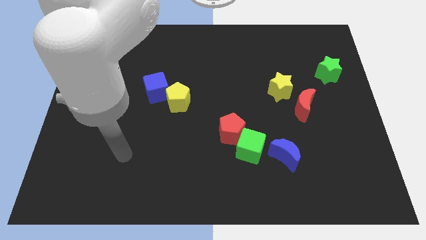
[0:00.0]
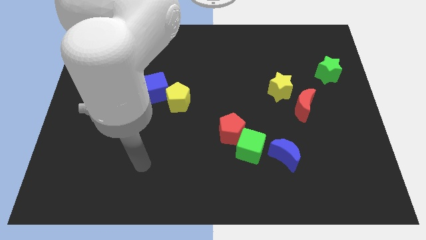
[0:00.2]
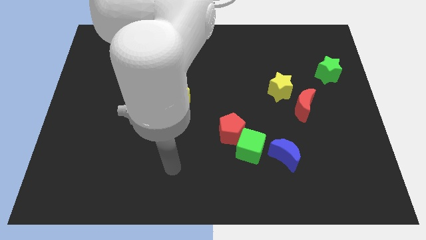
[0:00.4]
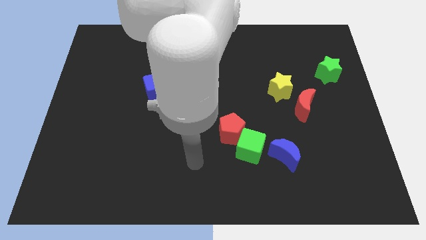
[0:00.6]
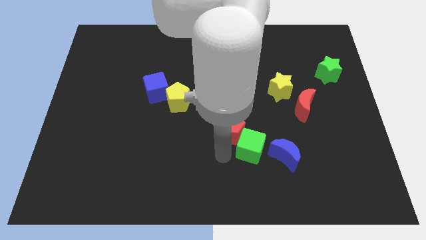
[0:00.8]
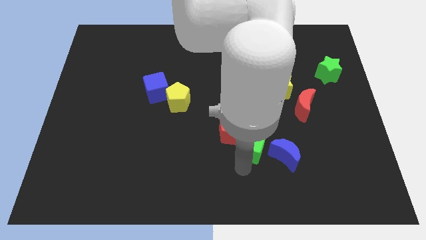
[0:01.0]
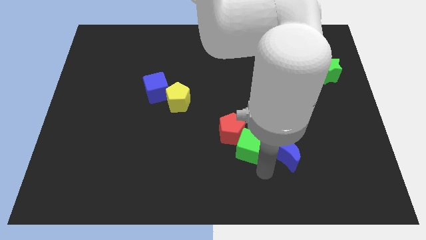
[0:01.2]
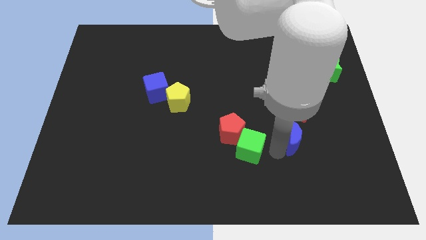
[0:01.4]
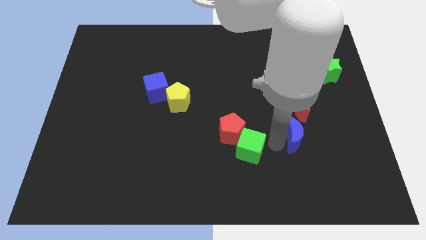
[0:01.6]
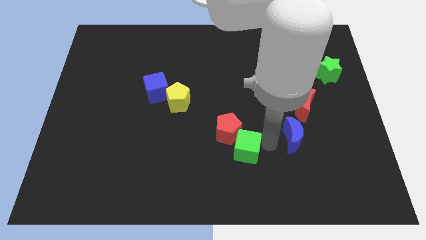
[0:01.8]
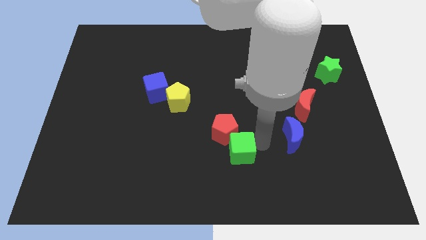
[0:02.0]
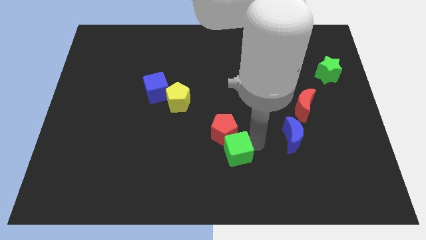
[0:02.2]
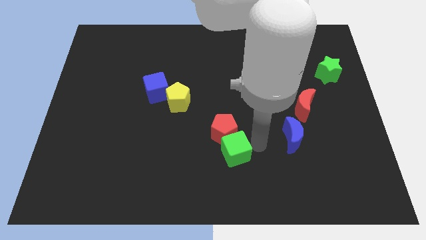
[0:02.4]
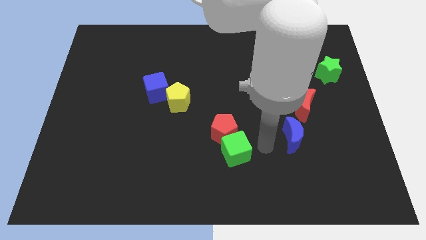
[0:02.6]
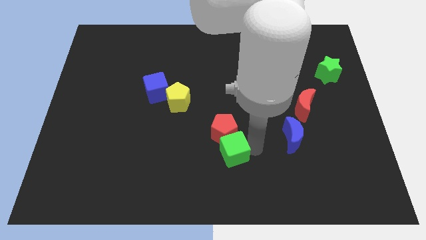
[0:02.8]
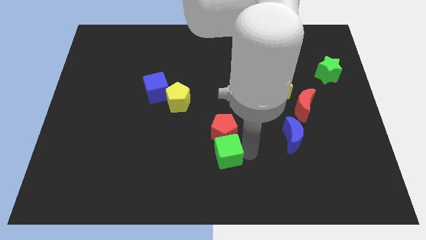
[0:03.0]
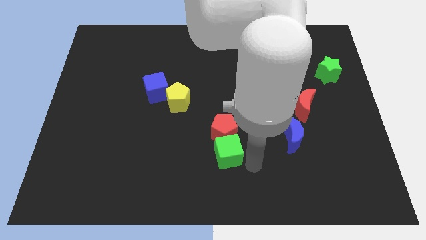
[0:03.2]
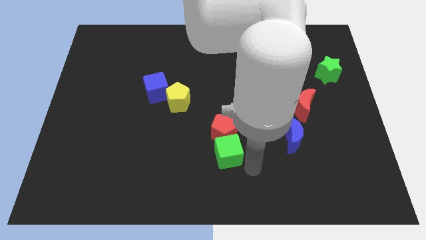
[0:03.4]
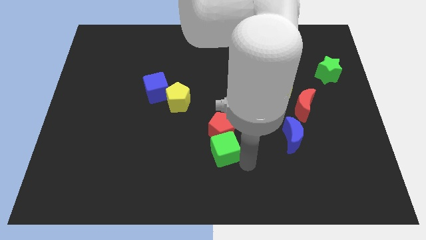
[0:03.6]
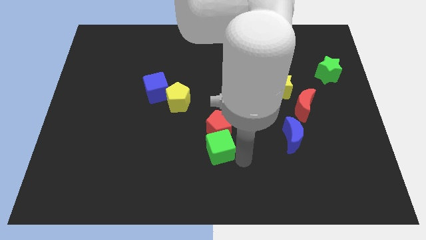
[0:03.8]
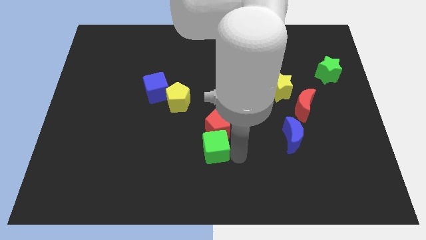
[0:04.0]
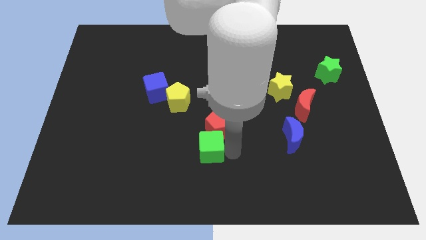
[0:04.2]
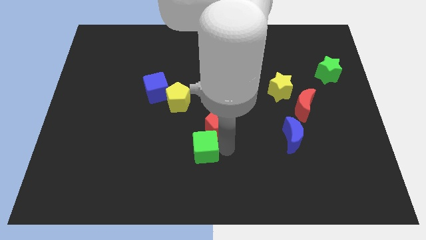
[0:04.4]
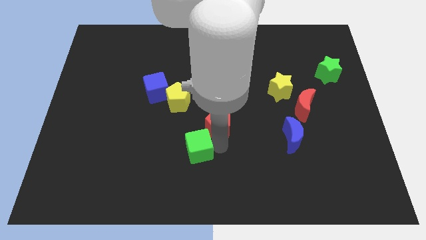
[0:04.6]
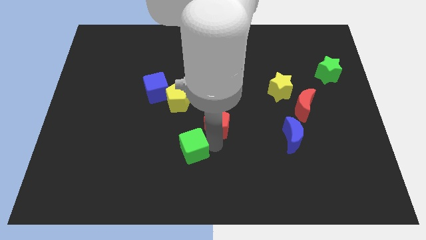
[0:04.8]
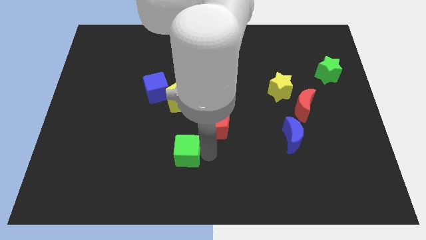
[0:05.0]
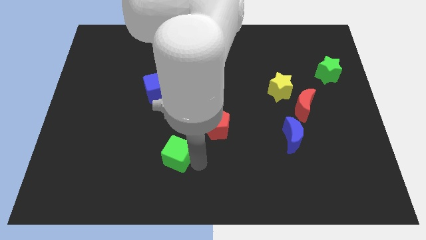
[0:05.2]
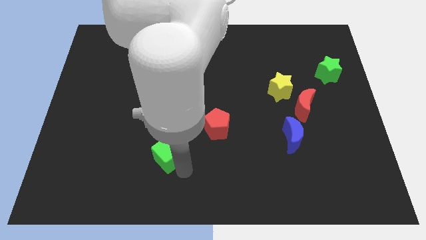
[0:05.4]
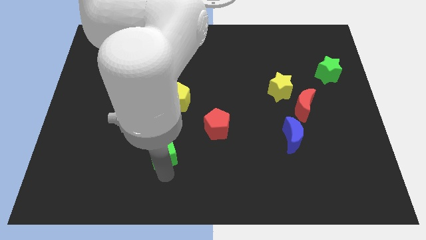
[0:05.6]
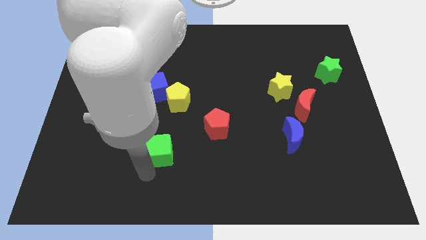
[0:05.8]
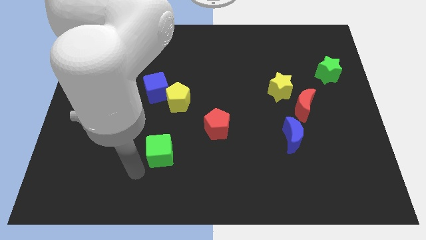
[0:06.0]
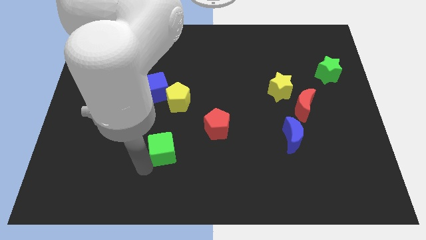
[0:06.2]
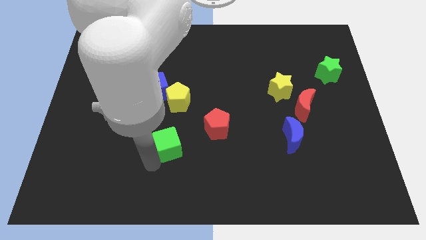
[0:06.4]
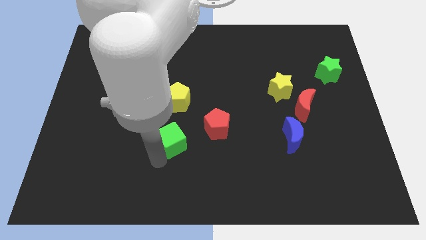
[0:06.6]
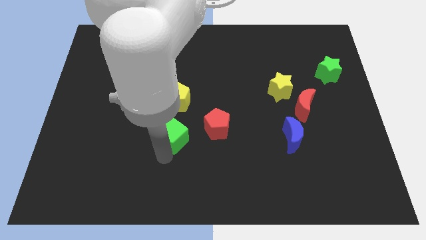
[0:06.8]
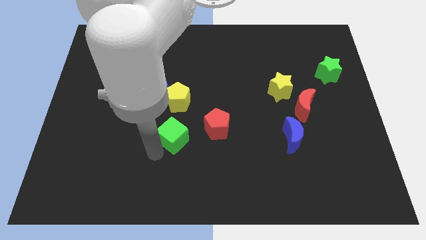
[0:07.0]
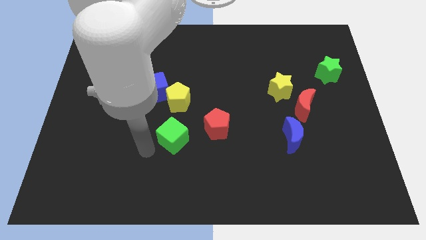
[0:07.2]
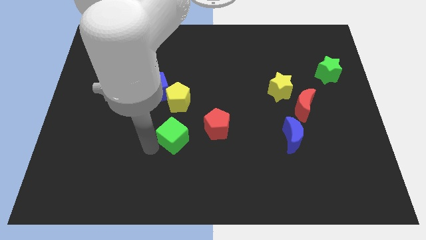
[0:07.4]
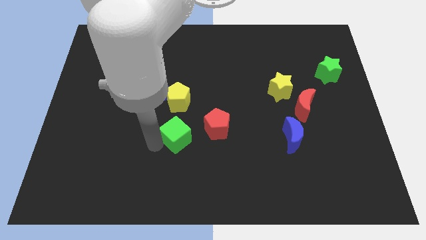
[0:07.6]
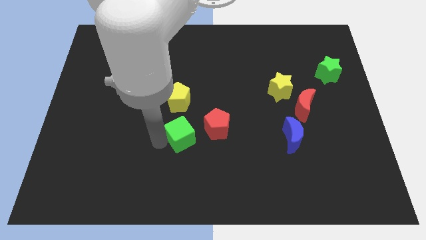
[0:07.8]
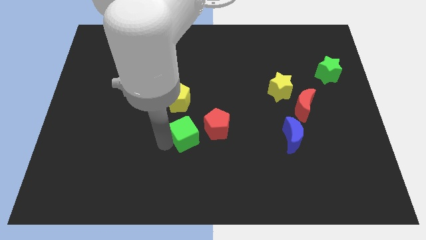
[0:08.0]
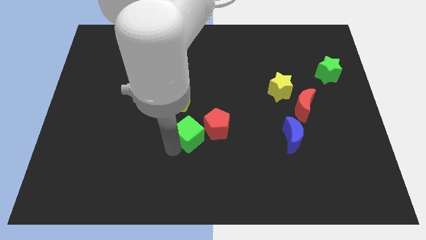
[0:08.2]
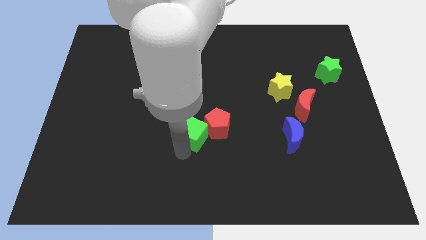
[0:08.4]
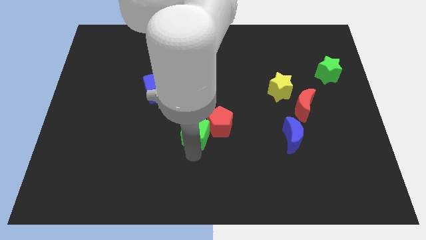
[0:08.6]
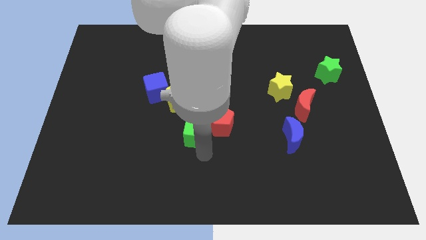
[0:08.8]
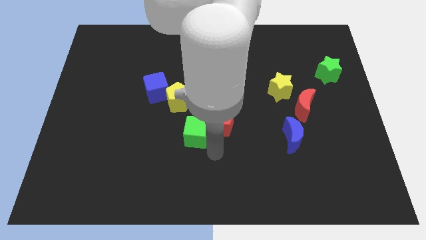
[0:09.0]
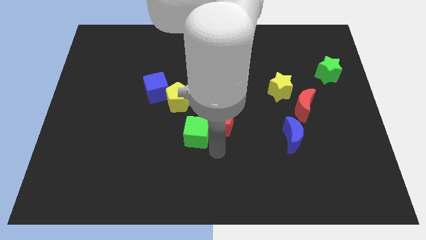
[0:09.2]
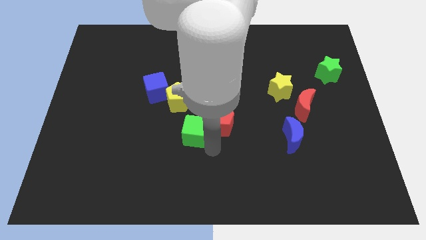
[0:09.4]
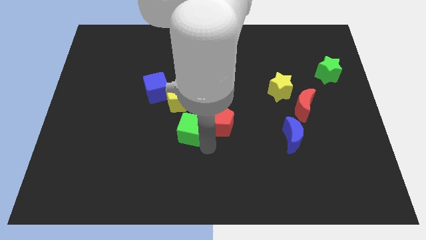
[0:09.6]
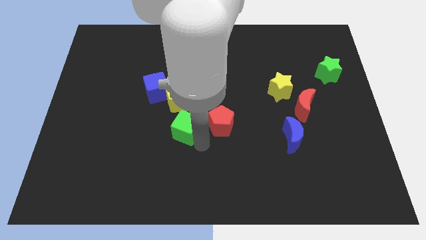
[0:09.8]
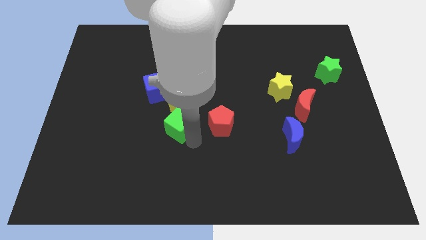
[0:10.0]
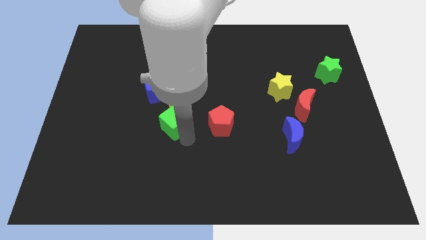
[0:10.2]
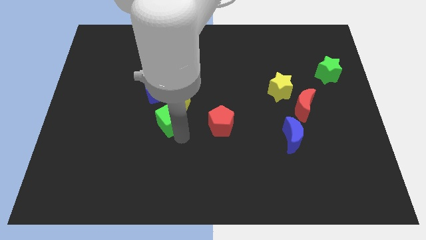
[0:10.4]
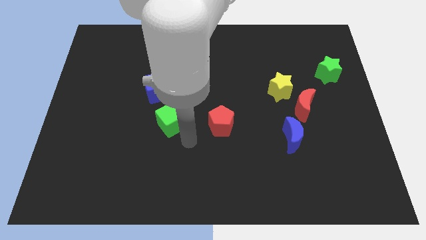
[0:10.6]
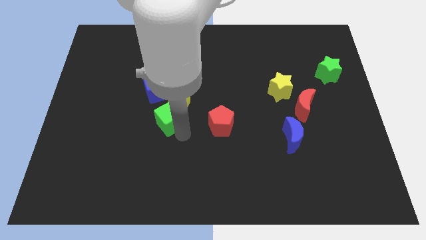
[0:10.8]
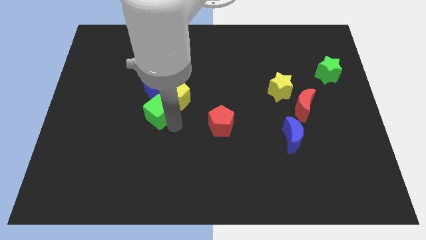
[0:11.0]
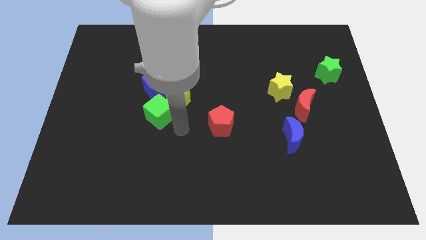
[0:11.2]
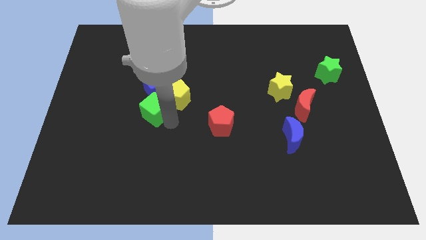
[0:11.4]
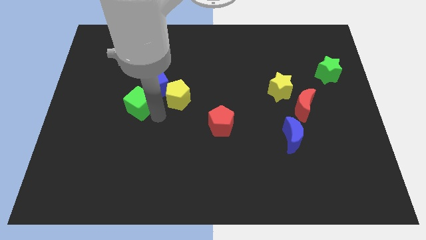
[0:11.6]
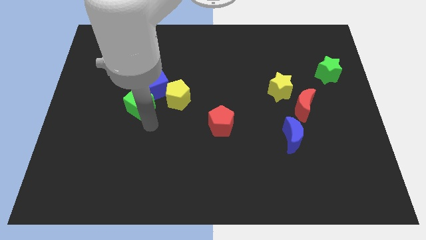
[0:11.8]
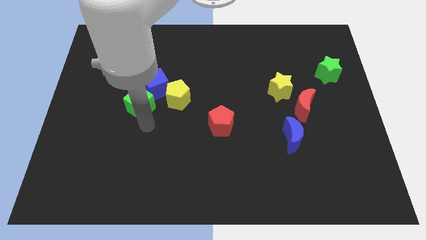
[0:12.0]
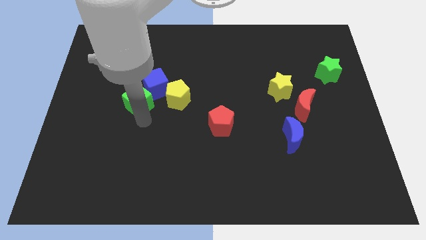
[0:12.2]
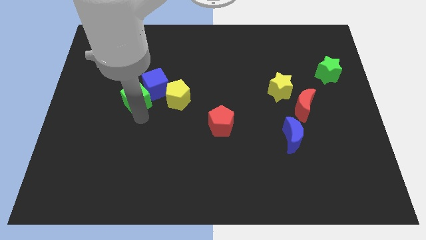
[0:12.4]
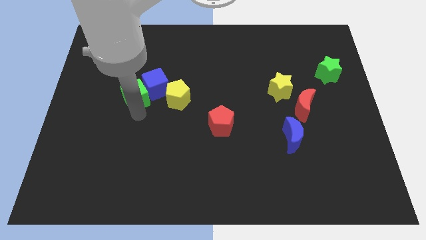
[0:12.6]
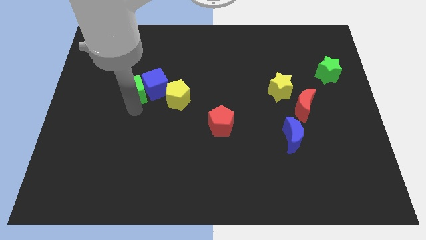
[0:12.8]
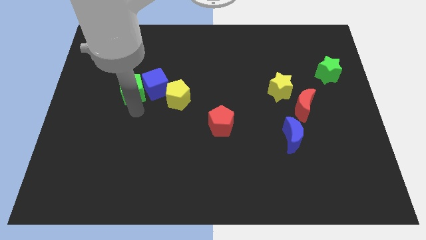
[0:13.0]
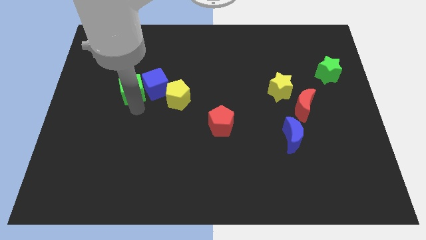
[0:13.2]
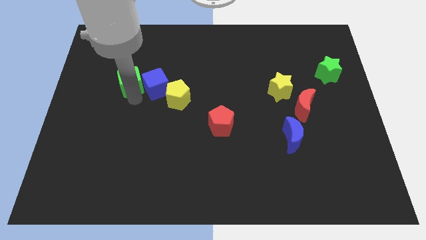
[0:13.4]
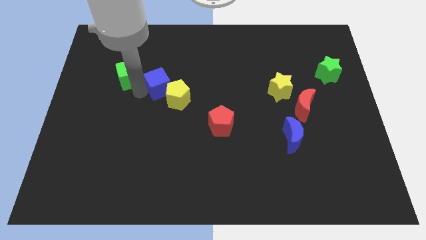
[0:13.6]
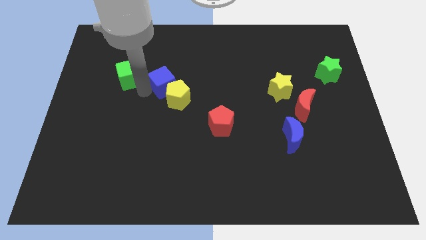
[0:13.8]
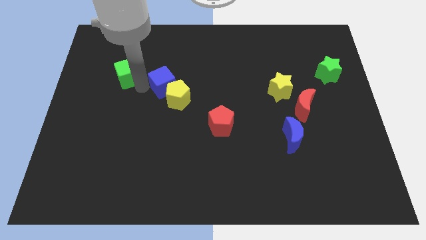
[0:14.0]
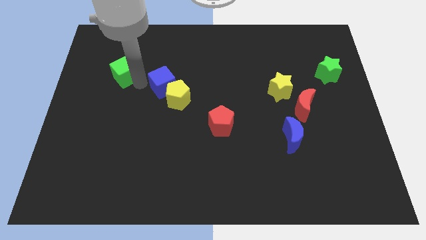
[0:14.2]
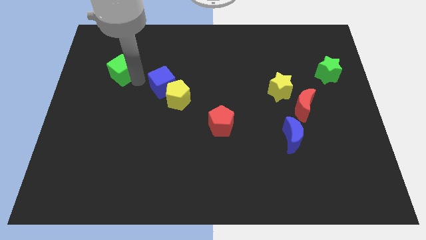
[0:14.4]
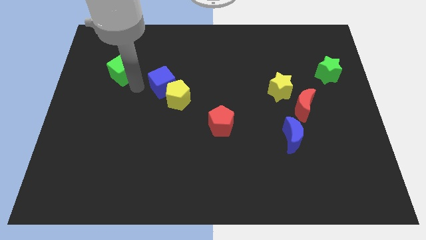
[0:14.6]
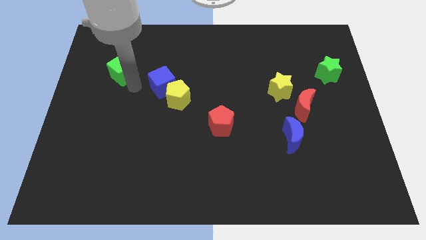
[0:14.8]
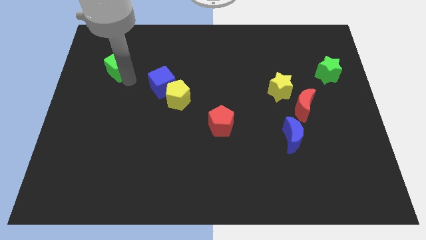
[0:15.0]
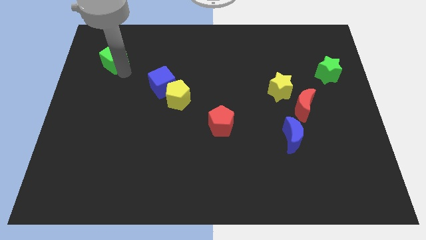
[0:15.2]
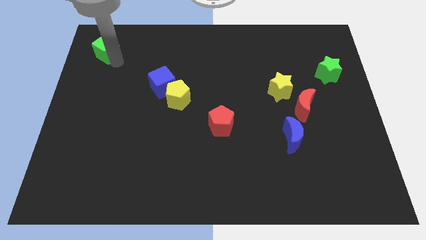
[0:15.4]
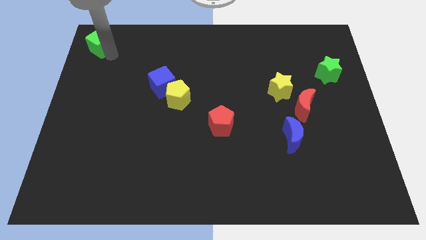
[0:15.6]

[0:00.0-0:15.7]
move the green cube to the top left
